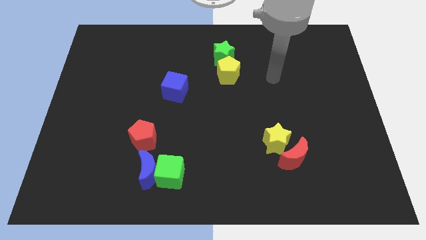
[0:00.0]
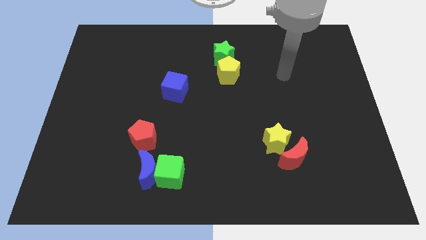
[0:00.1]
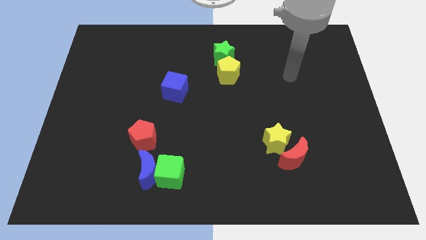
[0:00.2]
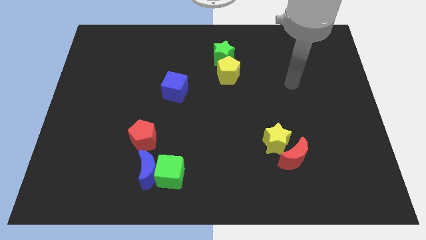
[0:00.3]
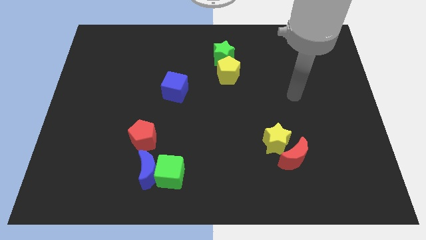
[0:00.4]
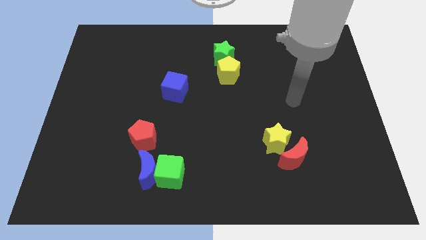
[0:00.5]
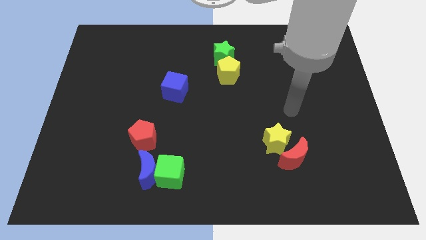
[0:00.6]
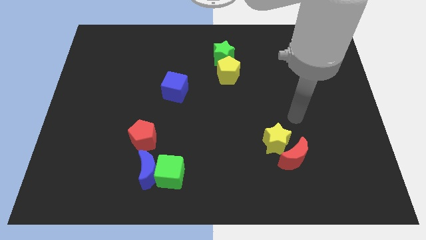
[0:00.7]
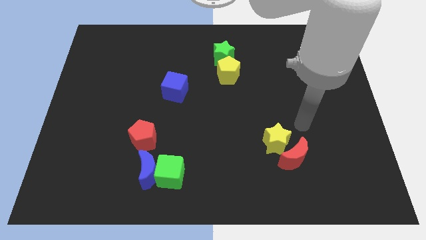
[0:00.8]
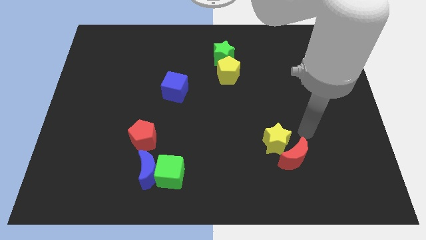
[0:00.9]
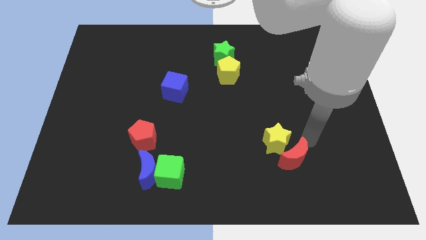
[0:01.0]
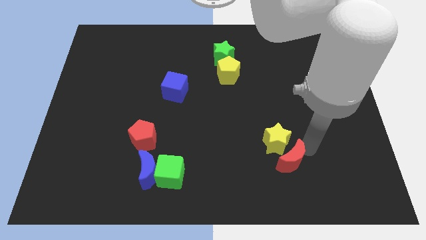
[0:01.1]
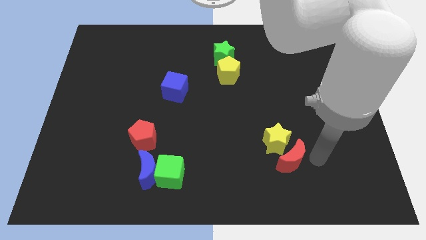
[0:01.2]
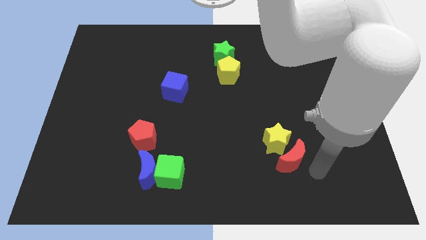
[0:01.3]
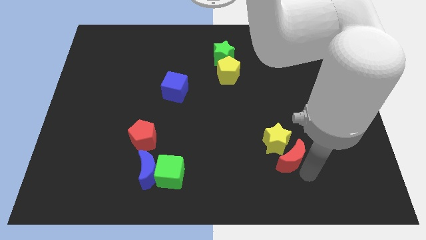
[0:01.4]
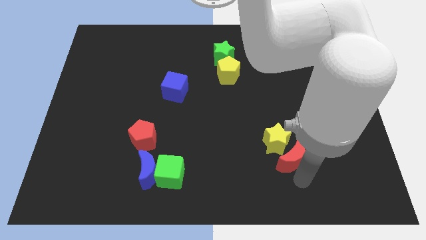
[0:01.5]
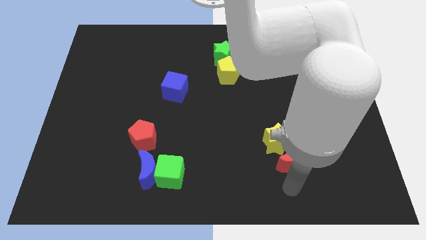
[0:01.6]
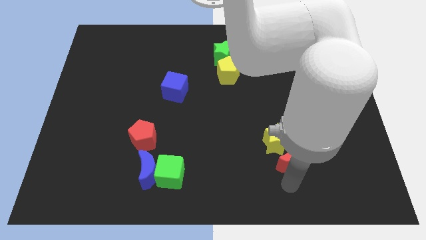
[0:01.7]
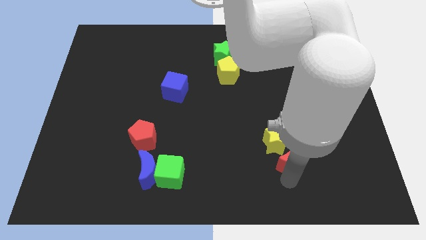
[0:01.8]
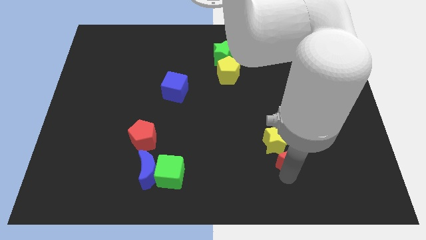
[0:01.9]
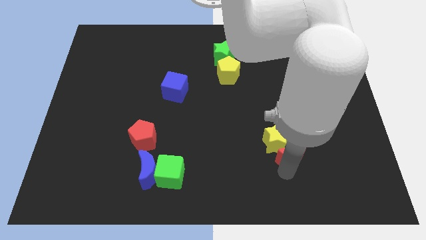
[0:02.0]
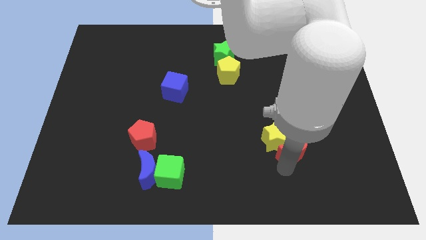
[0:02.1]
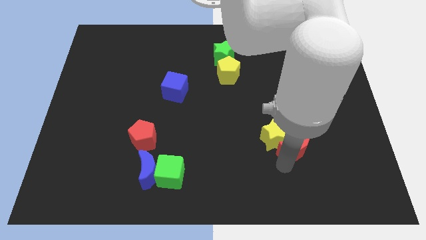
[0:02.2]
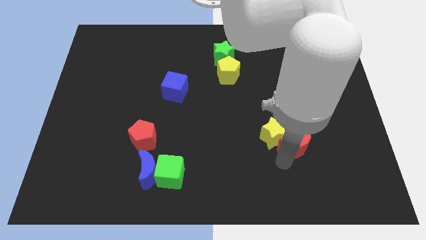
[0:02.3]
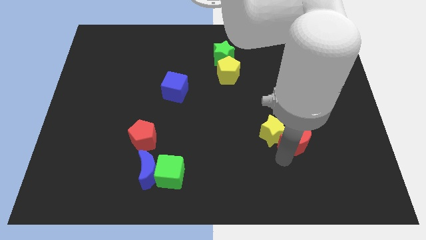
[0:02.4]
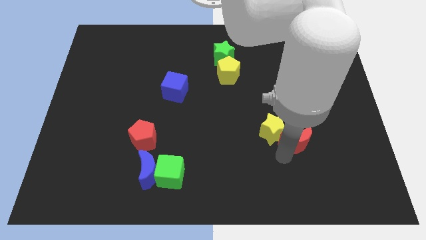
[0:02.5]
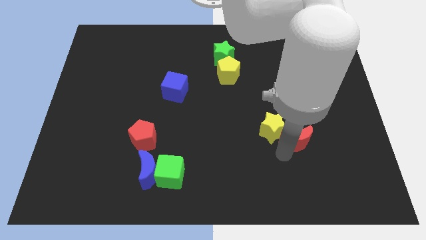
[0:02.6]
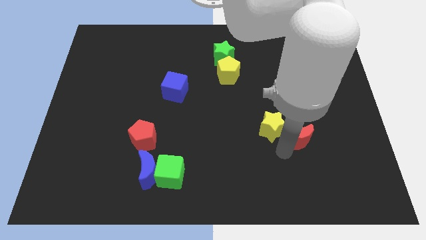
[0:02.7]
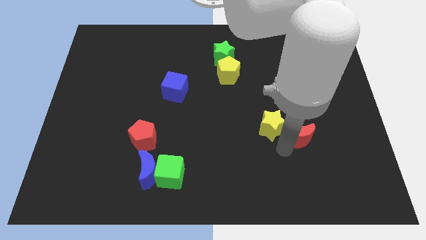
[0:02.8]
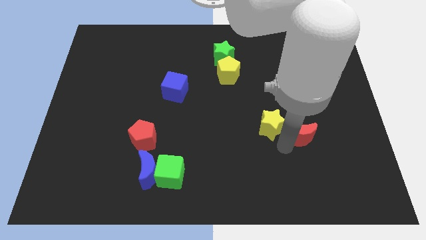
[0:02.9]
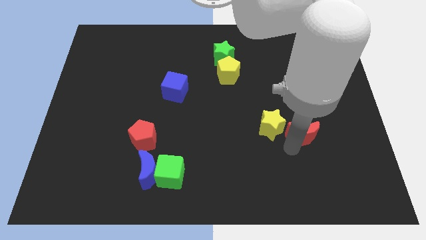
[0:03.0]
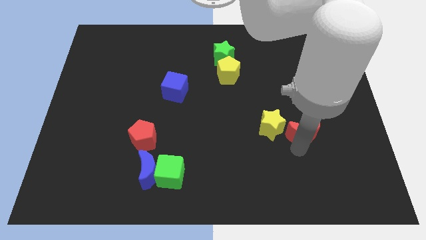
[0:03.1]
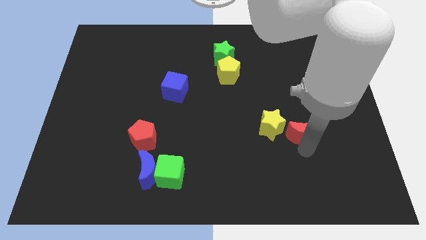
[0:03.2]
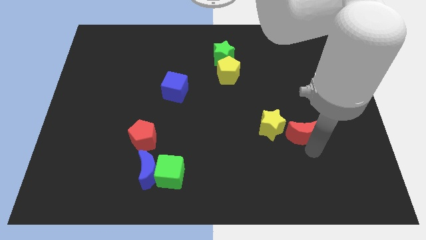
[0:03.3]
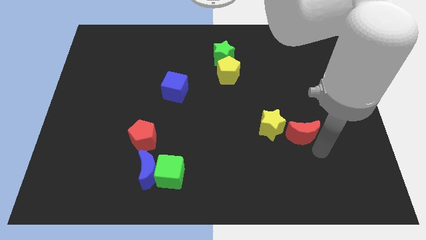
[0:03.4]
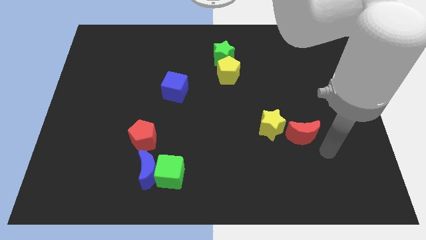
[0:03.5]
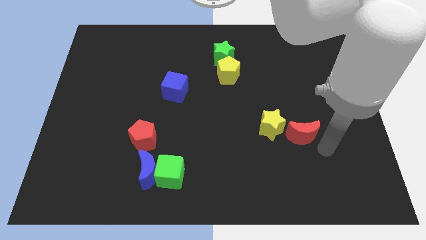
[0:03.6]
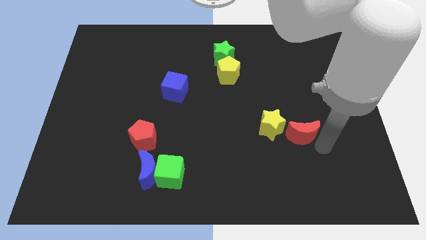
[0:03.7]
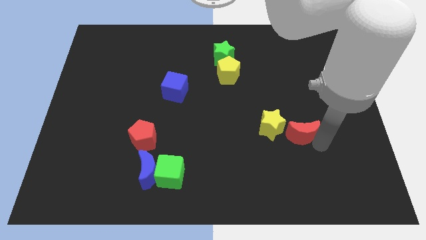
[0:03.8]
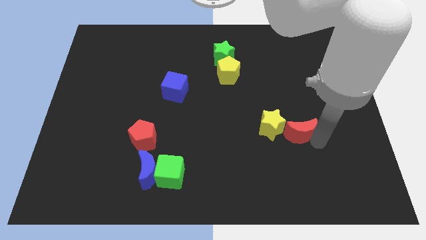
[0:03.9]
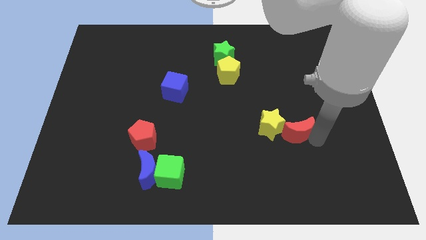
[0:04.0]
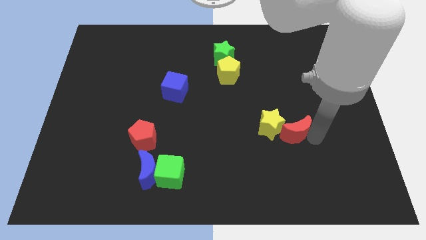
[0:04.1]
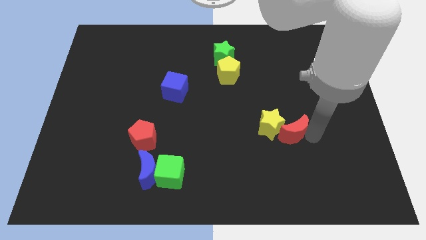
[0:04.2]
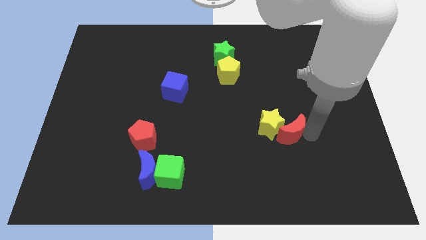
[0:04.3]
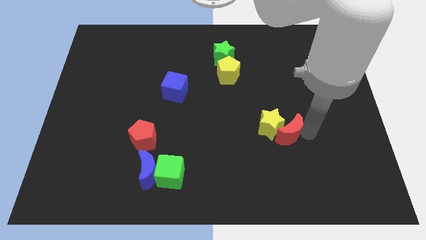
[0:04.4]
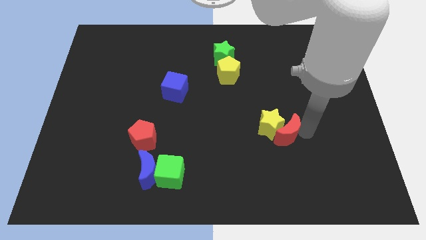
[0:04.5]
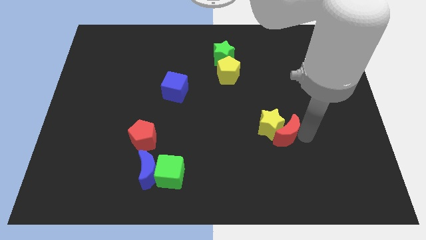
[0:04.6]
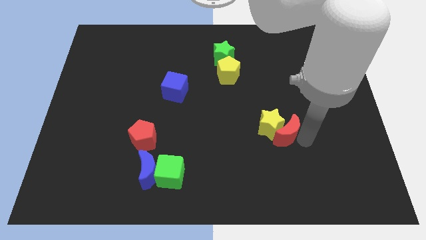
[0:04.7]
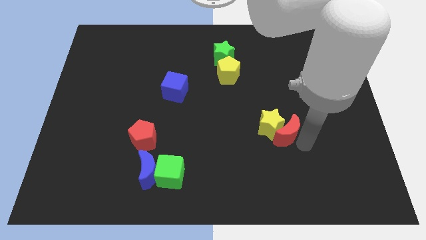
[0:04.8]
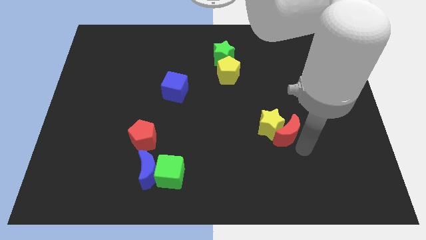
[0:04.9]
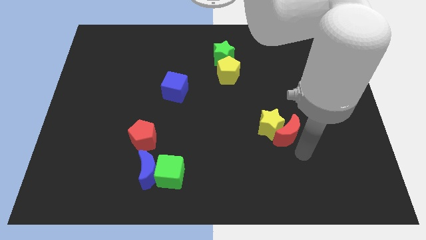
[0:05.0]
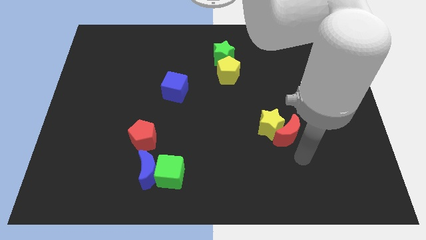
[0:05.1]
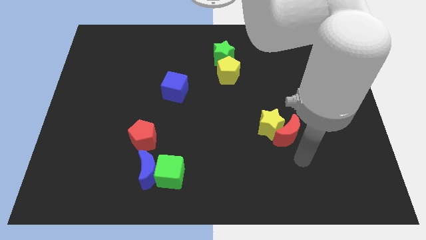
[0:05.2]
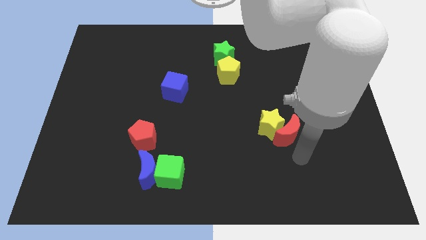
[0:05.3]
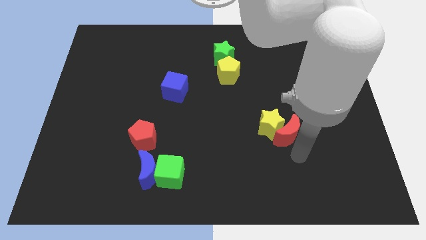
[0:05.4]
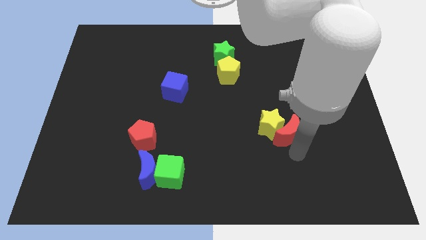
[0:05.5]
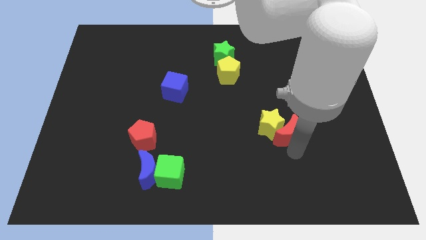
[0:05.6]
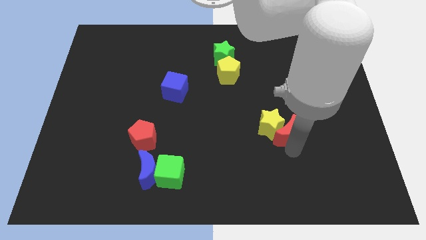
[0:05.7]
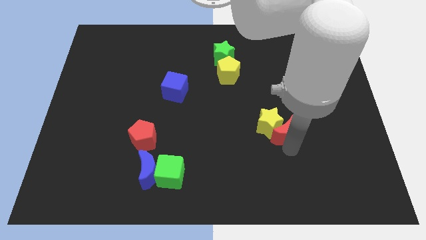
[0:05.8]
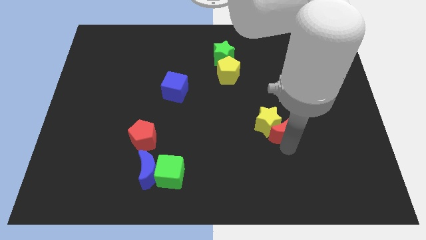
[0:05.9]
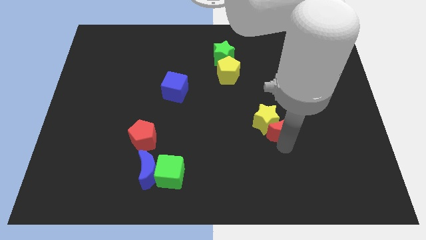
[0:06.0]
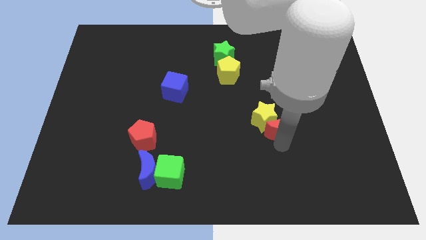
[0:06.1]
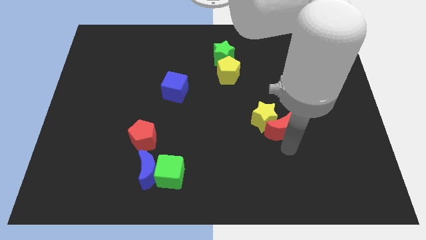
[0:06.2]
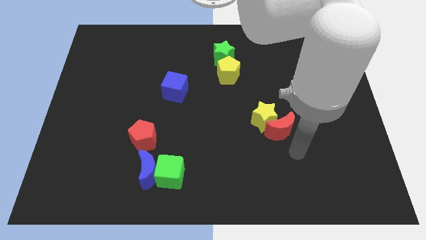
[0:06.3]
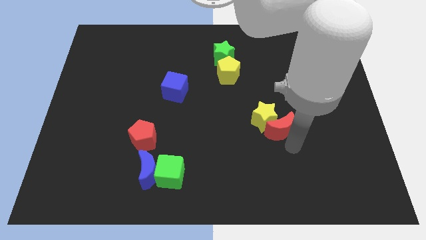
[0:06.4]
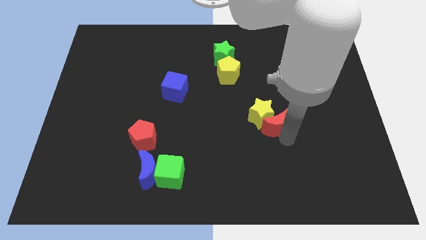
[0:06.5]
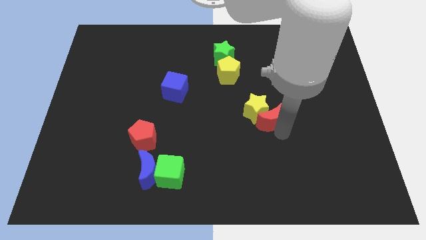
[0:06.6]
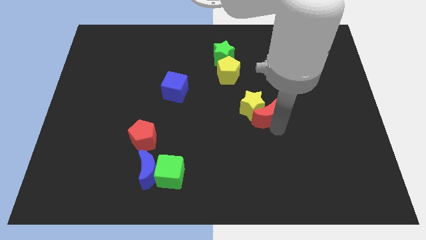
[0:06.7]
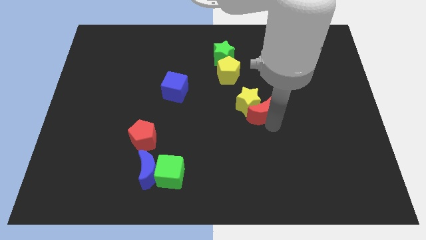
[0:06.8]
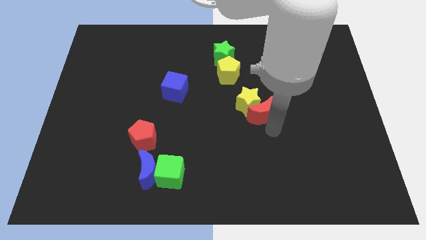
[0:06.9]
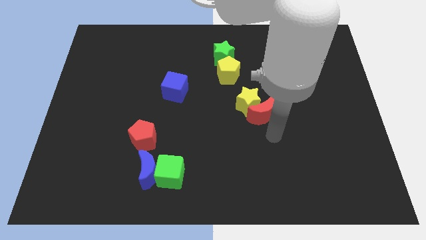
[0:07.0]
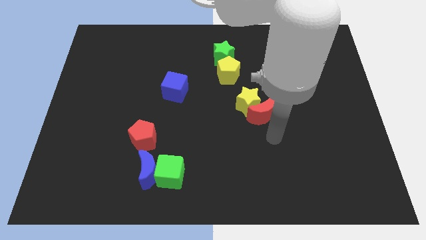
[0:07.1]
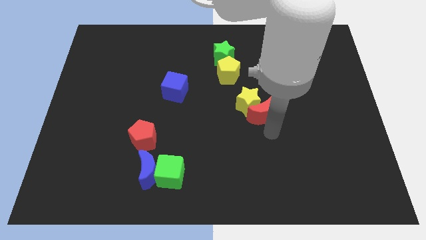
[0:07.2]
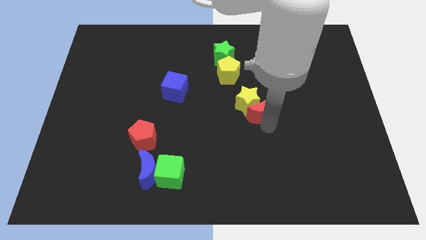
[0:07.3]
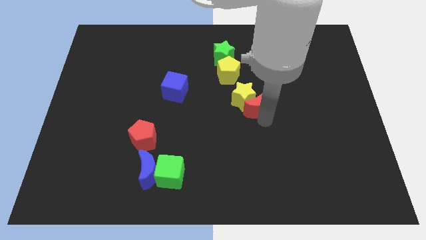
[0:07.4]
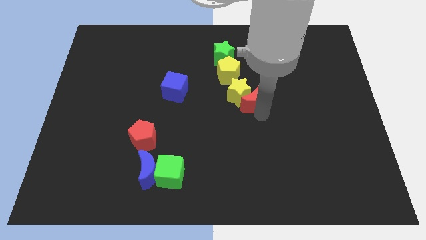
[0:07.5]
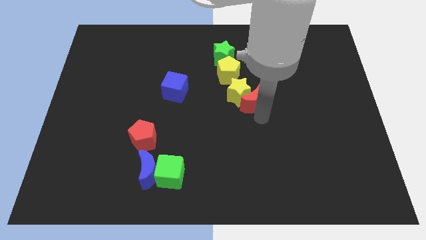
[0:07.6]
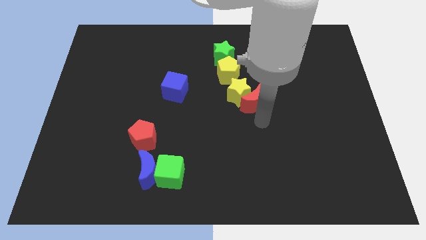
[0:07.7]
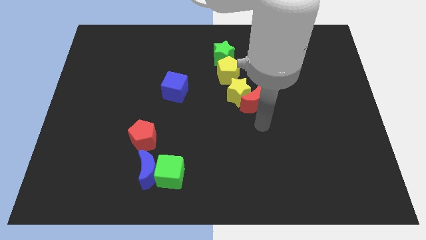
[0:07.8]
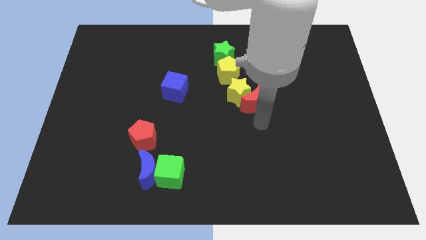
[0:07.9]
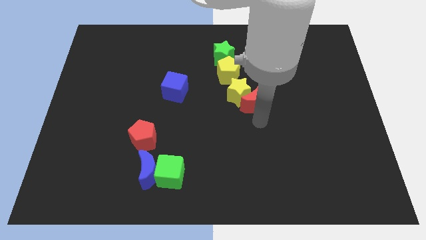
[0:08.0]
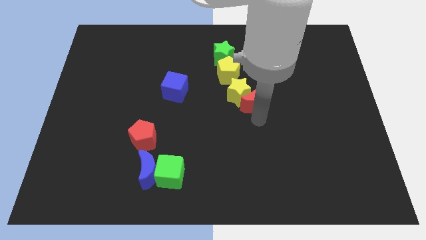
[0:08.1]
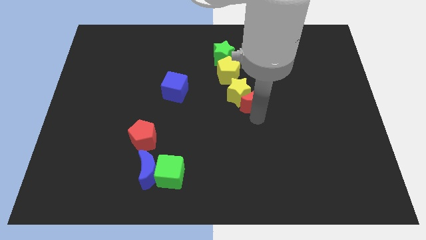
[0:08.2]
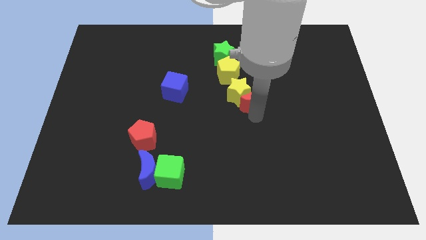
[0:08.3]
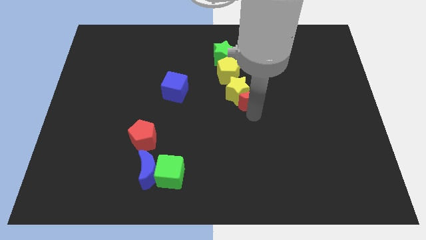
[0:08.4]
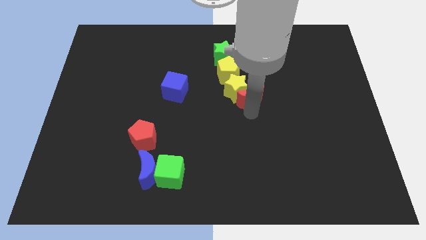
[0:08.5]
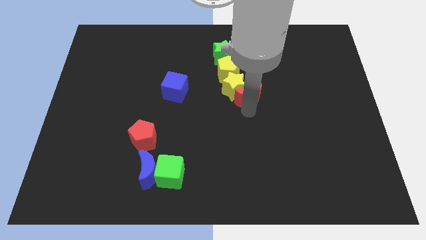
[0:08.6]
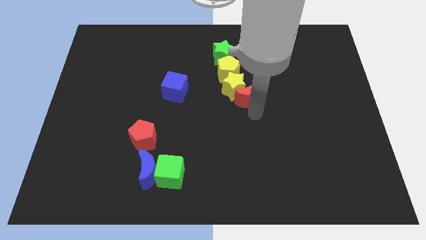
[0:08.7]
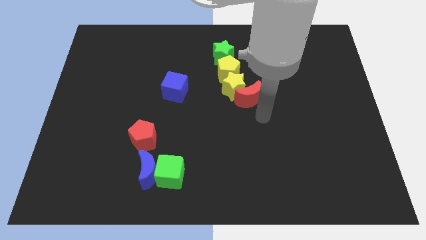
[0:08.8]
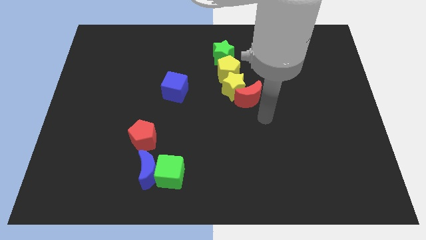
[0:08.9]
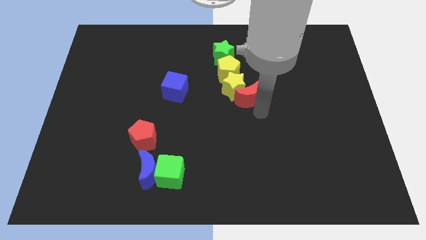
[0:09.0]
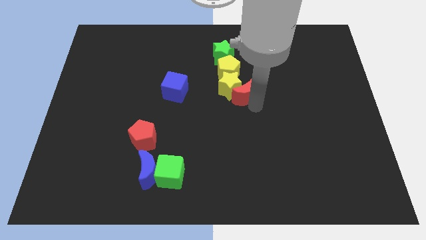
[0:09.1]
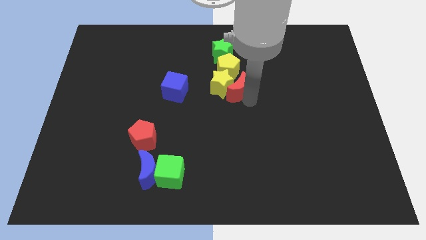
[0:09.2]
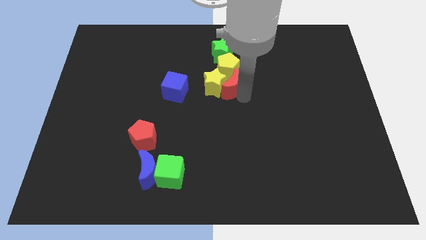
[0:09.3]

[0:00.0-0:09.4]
push the red moon towards the yellow pentagon
